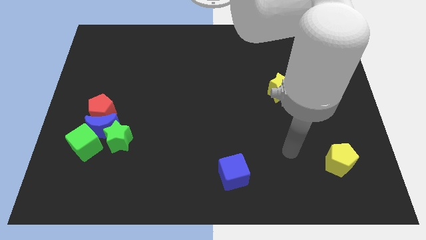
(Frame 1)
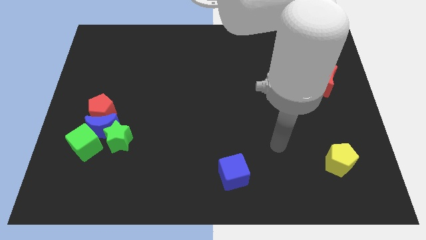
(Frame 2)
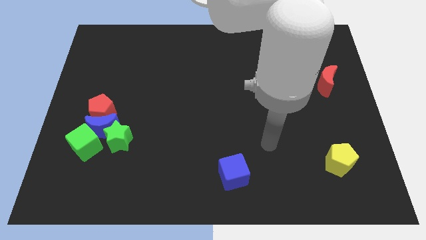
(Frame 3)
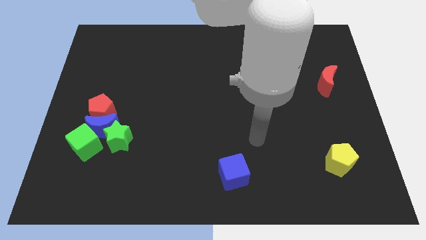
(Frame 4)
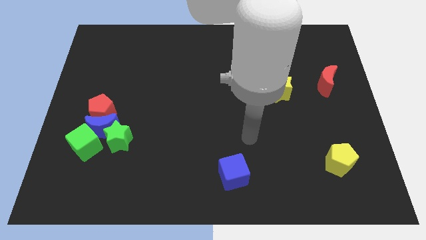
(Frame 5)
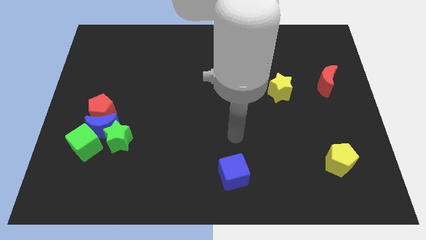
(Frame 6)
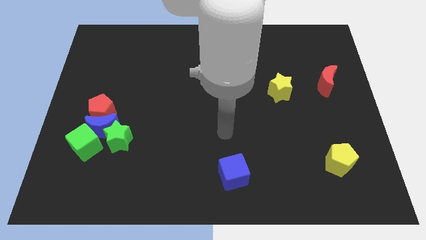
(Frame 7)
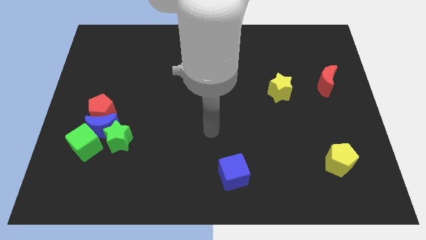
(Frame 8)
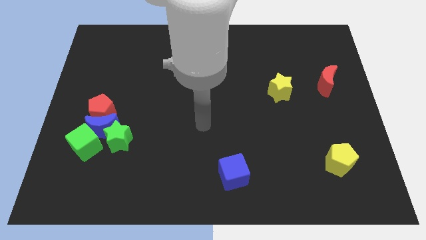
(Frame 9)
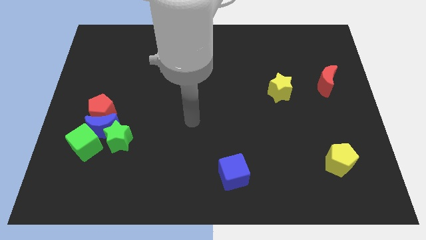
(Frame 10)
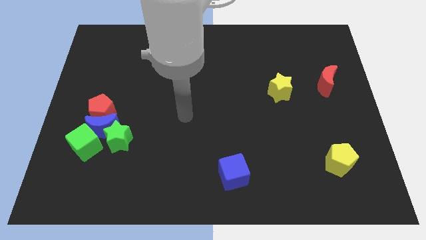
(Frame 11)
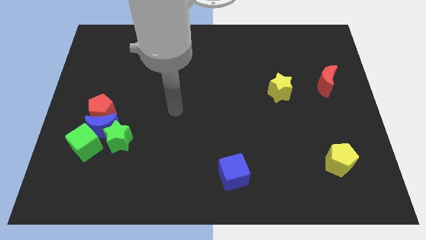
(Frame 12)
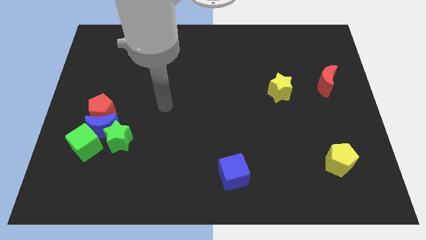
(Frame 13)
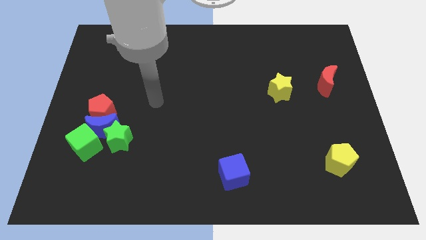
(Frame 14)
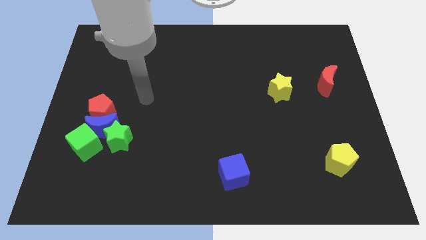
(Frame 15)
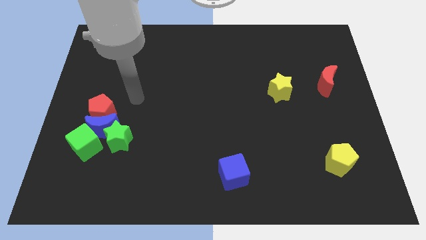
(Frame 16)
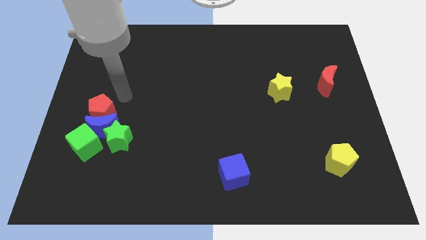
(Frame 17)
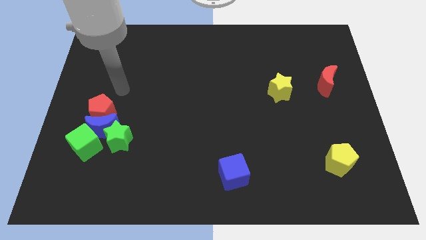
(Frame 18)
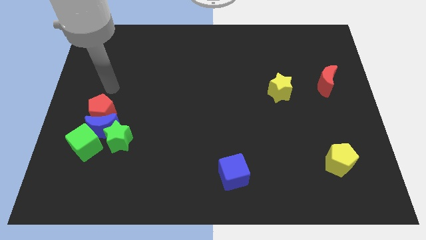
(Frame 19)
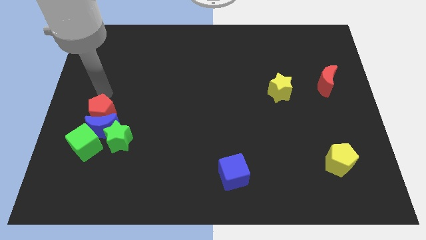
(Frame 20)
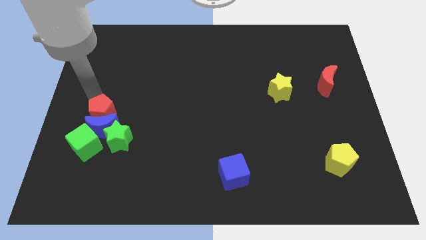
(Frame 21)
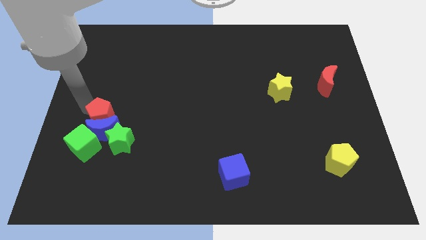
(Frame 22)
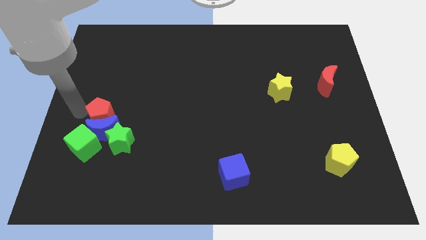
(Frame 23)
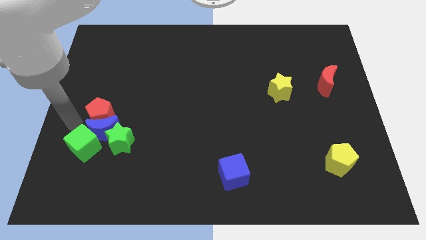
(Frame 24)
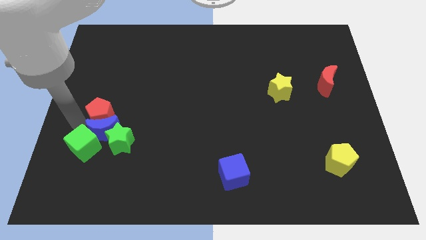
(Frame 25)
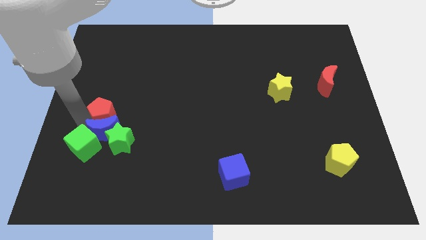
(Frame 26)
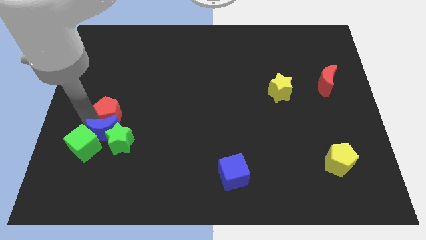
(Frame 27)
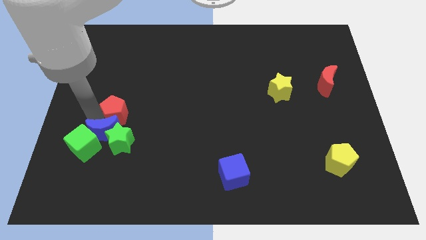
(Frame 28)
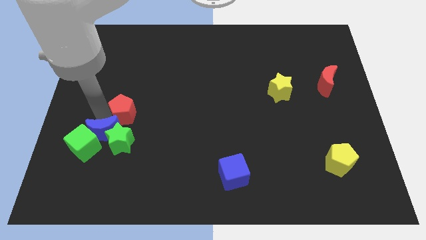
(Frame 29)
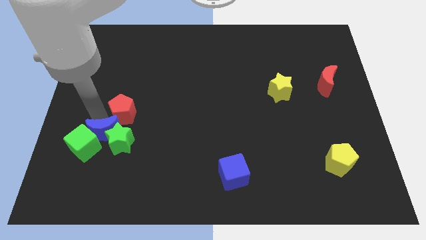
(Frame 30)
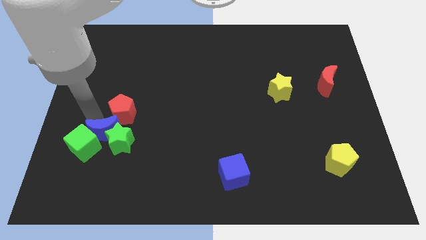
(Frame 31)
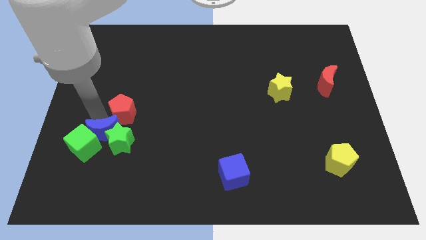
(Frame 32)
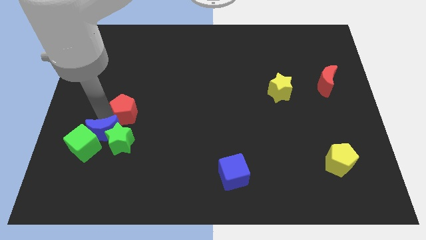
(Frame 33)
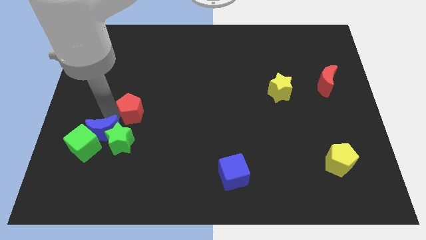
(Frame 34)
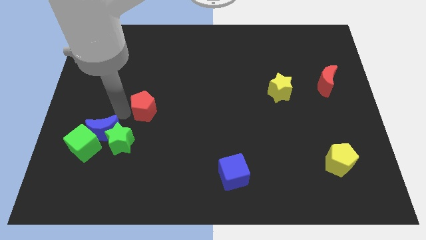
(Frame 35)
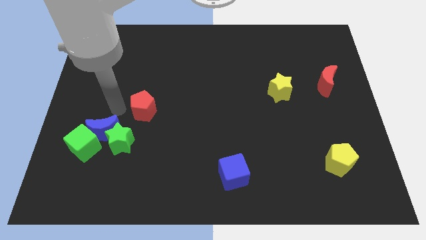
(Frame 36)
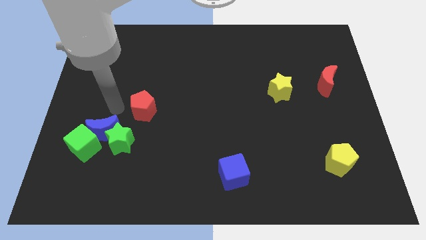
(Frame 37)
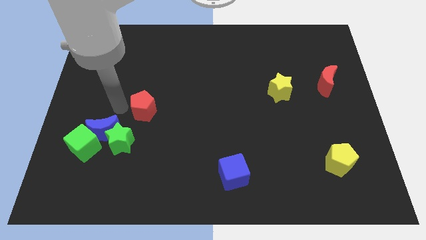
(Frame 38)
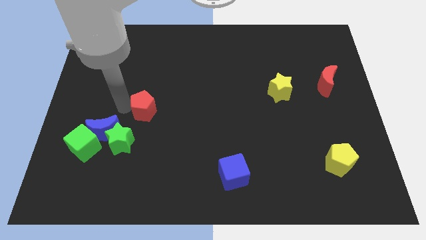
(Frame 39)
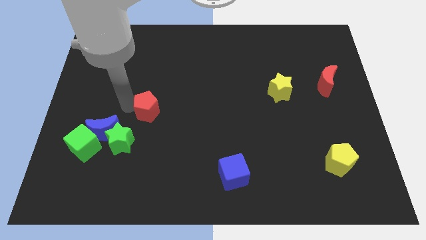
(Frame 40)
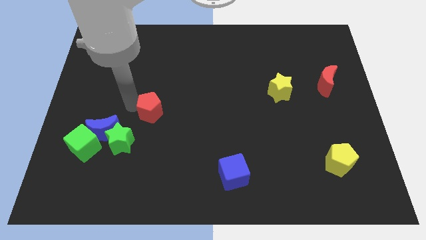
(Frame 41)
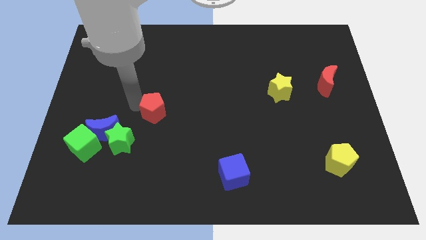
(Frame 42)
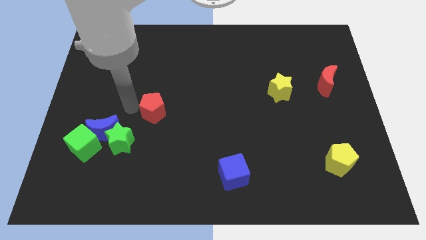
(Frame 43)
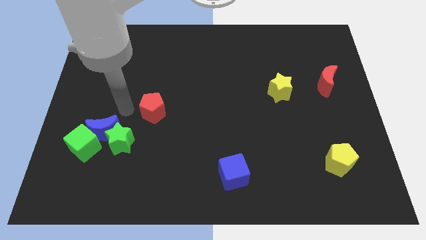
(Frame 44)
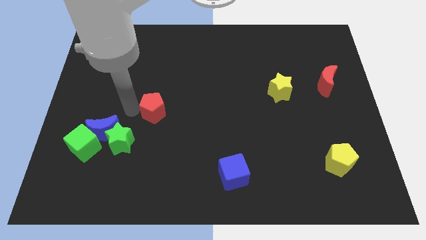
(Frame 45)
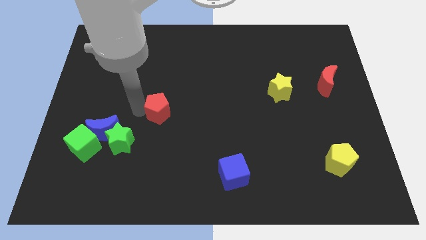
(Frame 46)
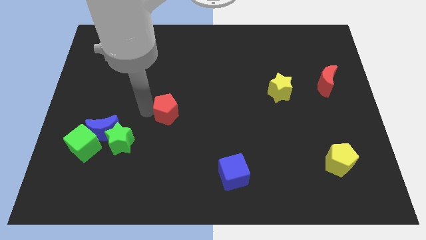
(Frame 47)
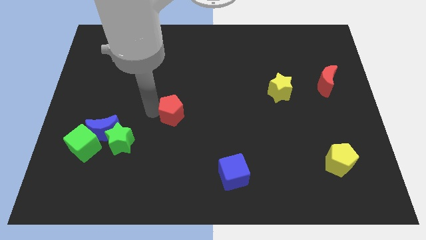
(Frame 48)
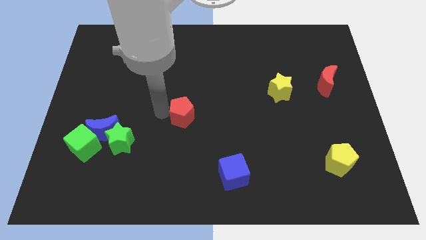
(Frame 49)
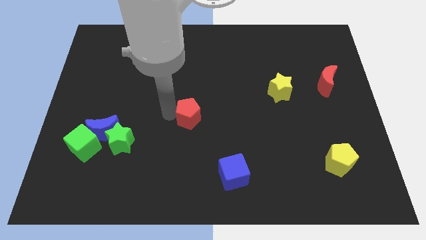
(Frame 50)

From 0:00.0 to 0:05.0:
push the red pentagon right

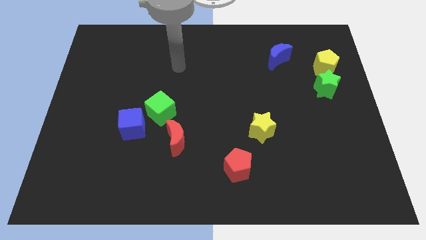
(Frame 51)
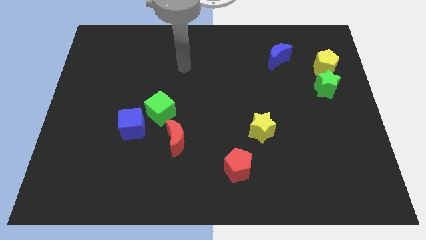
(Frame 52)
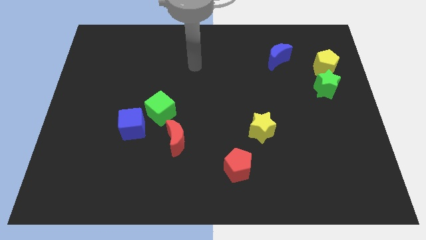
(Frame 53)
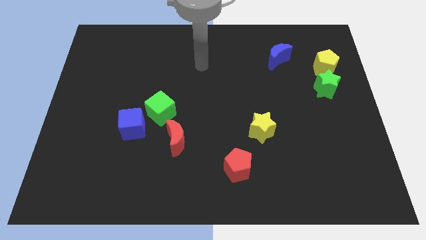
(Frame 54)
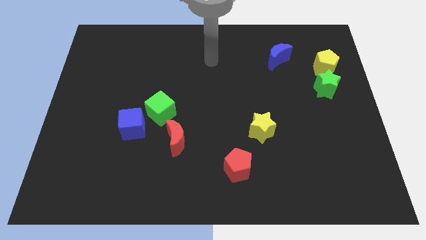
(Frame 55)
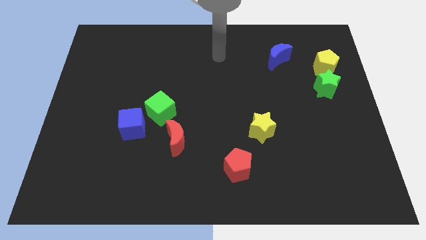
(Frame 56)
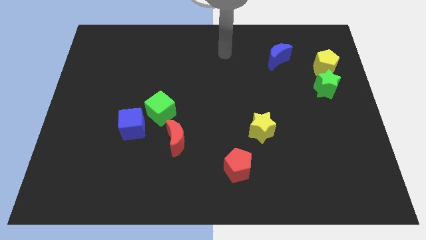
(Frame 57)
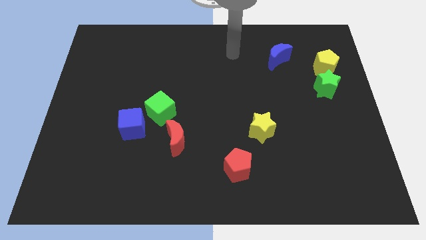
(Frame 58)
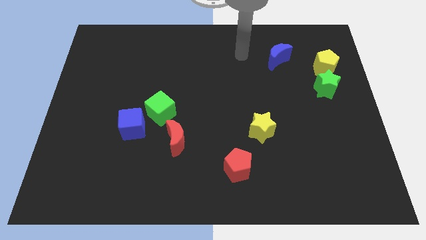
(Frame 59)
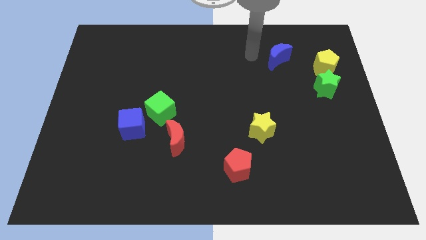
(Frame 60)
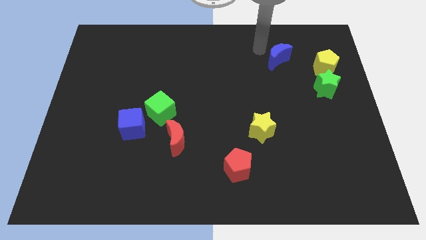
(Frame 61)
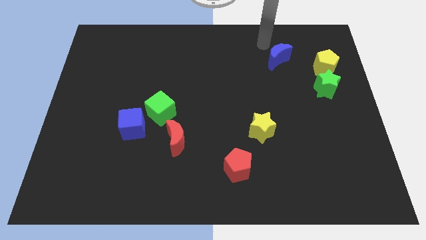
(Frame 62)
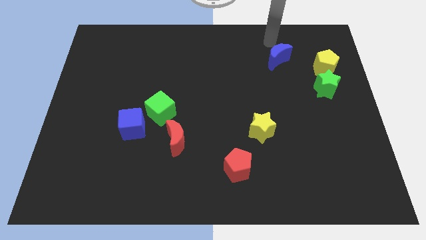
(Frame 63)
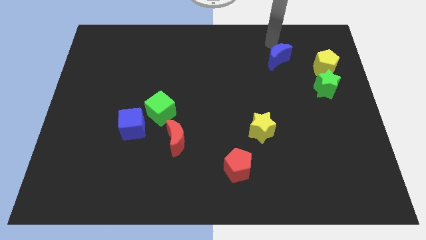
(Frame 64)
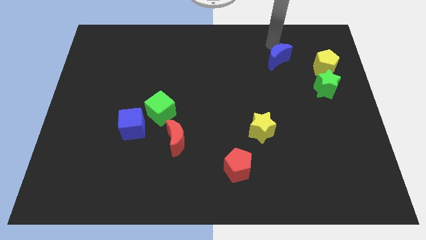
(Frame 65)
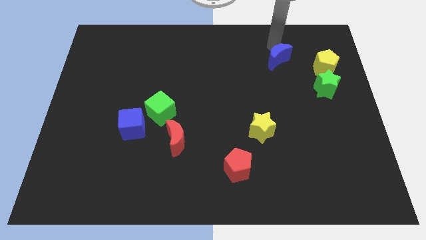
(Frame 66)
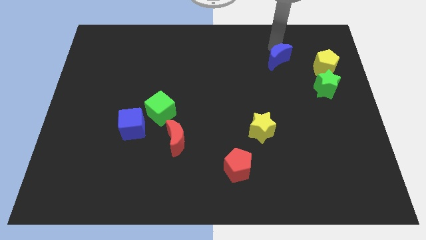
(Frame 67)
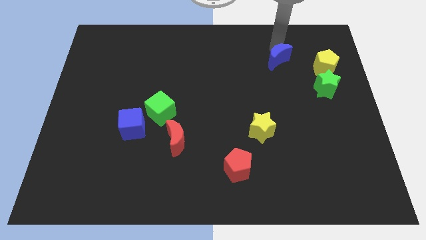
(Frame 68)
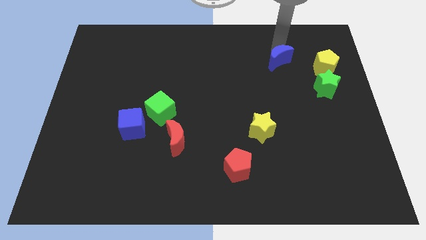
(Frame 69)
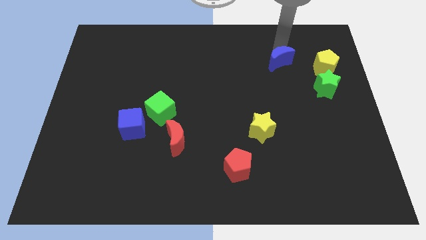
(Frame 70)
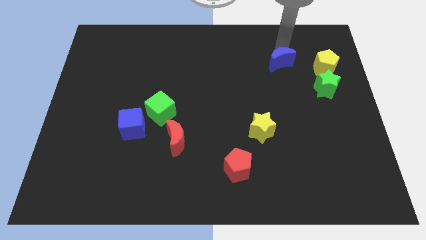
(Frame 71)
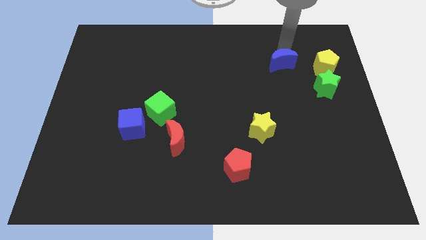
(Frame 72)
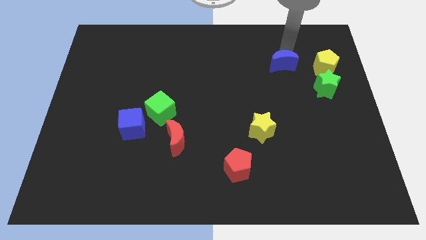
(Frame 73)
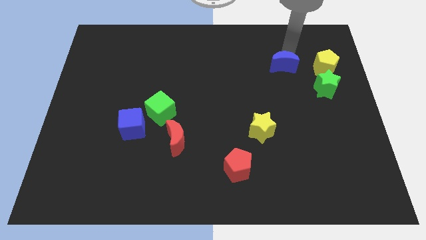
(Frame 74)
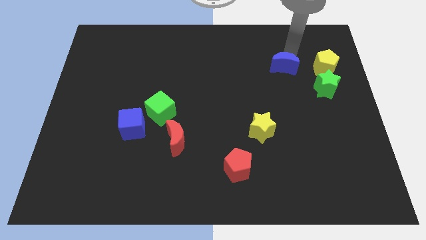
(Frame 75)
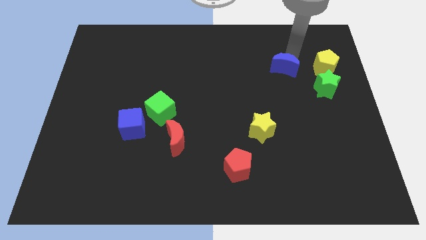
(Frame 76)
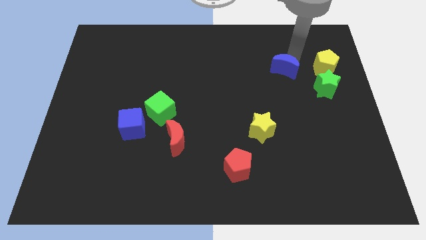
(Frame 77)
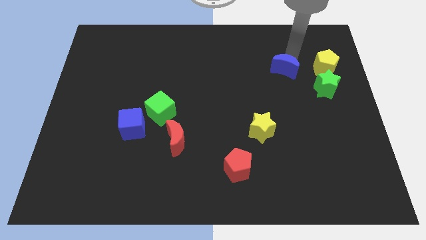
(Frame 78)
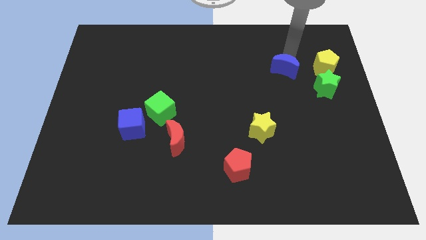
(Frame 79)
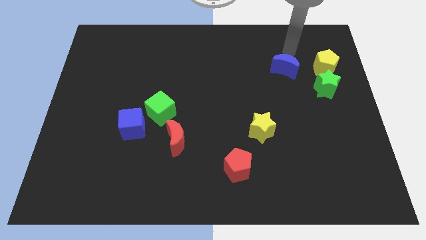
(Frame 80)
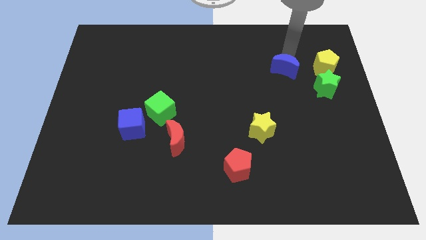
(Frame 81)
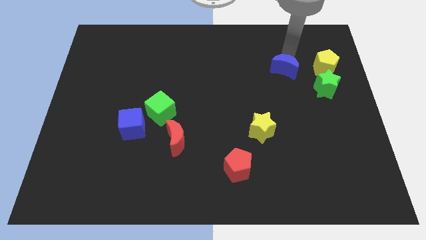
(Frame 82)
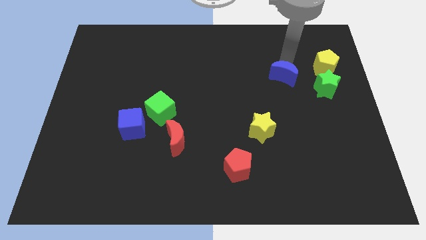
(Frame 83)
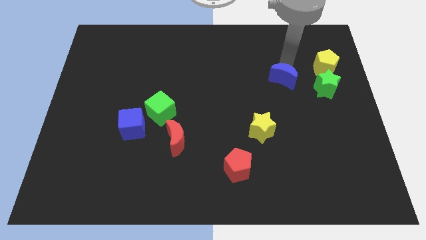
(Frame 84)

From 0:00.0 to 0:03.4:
slide the blue moon a little down

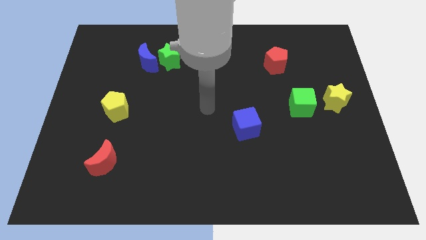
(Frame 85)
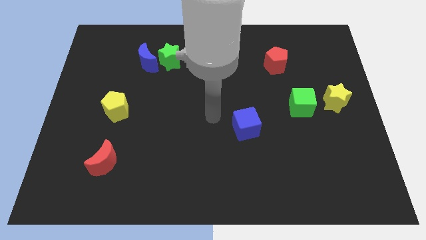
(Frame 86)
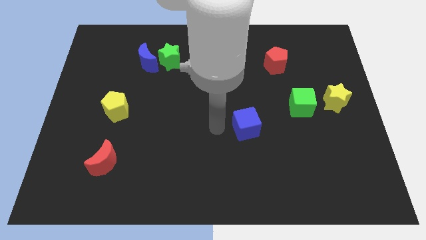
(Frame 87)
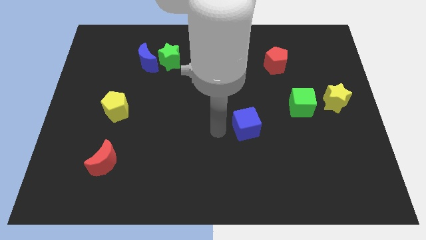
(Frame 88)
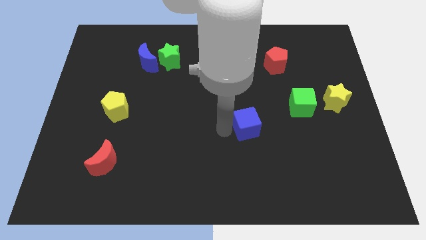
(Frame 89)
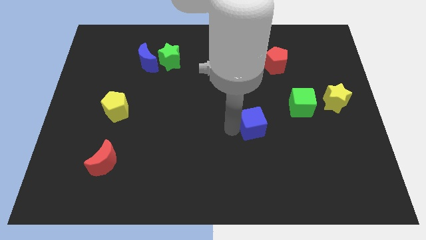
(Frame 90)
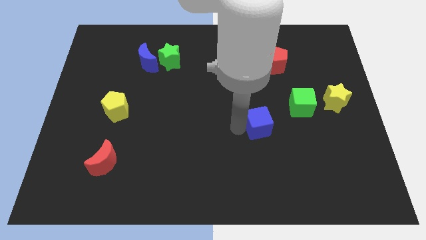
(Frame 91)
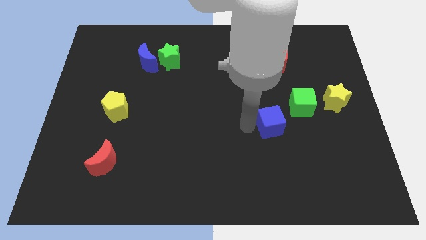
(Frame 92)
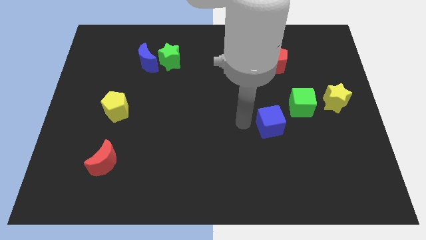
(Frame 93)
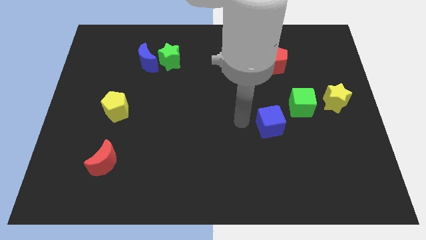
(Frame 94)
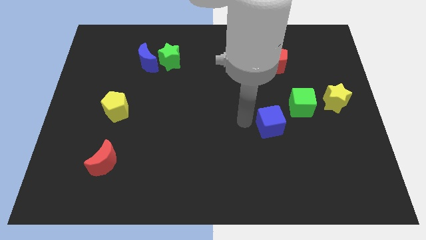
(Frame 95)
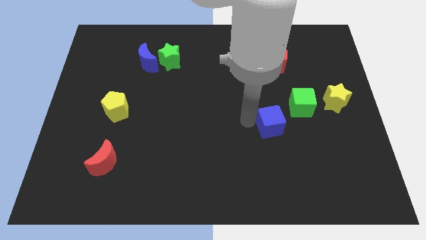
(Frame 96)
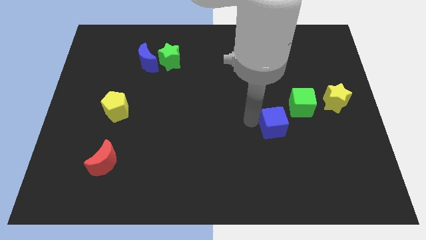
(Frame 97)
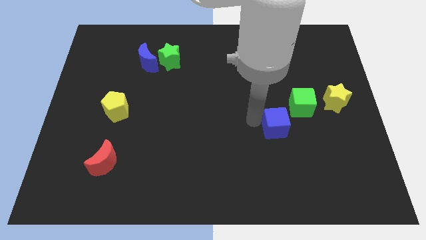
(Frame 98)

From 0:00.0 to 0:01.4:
push the blue cube to the right a little
